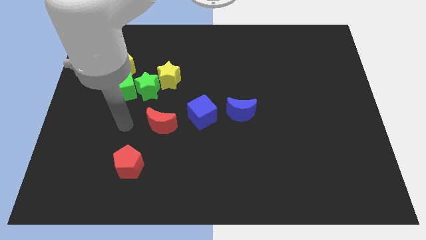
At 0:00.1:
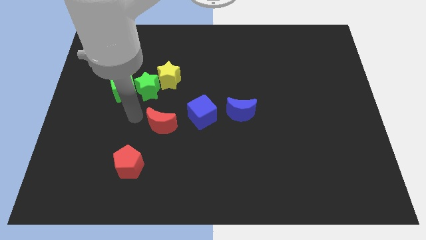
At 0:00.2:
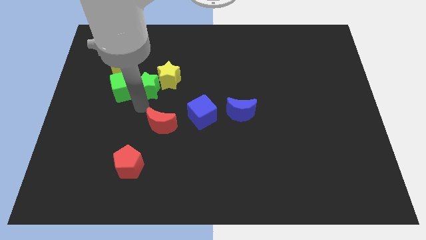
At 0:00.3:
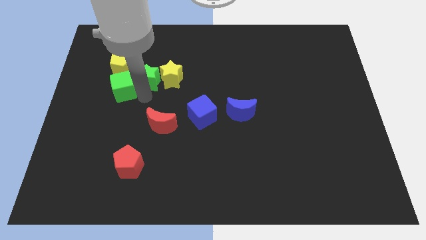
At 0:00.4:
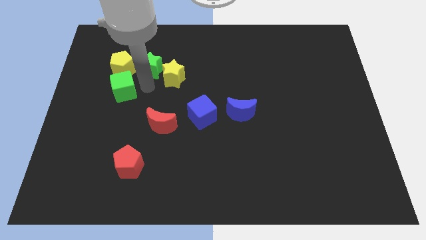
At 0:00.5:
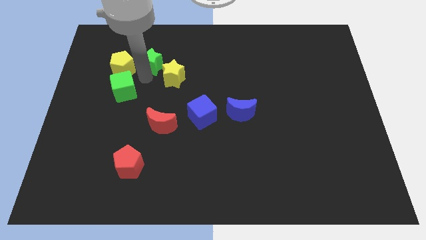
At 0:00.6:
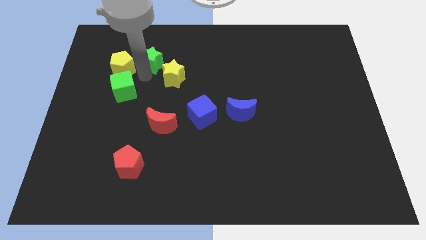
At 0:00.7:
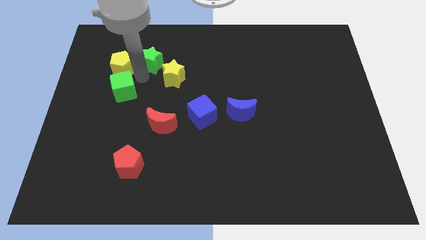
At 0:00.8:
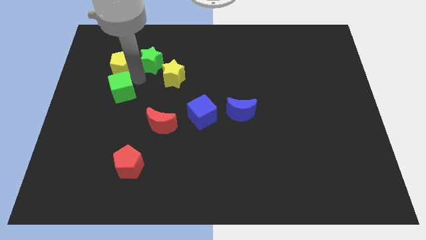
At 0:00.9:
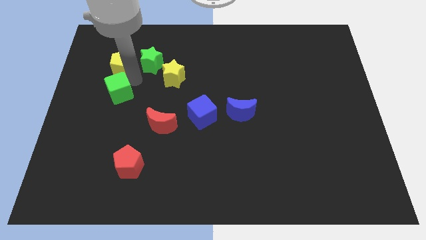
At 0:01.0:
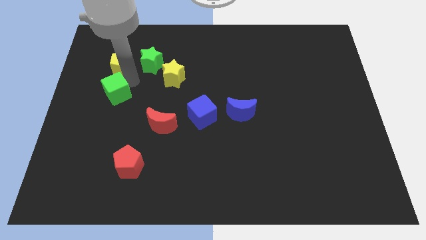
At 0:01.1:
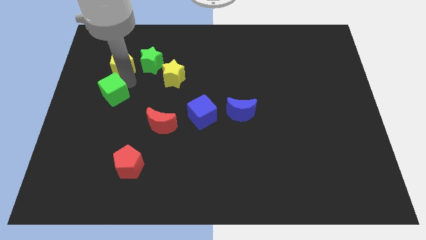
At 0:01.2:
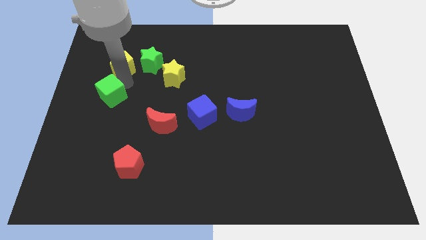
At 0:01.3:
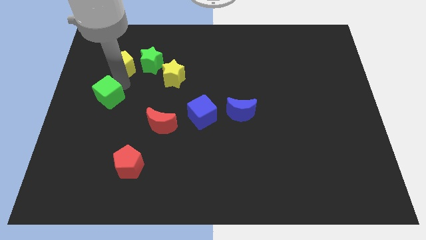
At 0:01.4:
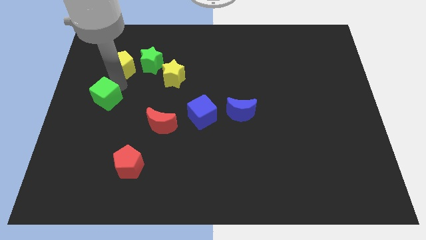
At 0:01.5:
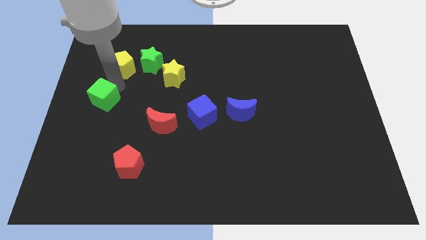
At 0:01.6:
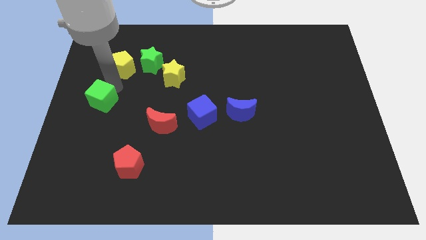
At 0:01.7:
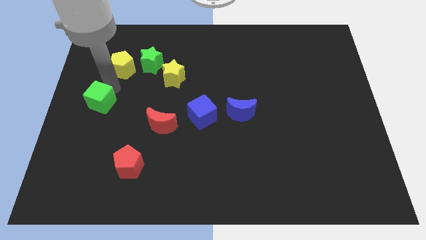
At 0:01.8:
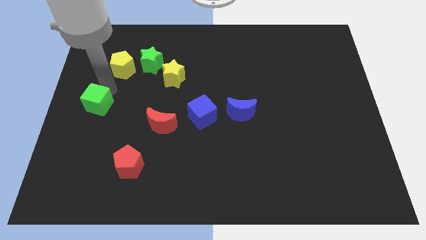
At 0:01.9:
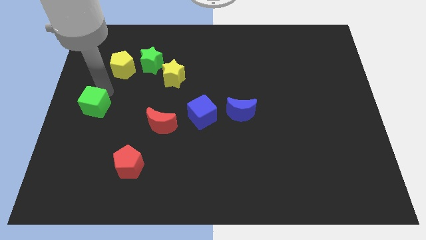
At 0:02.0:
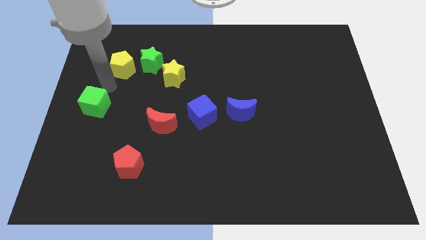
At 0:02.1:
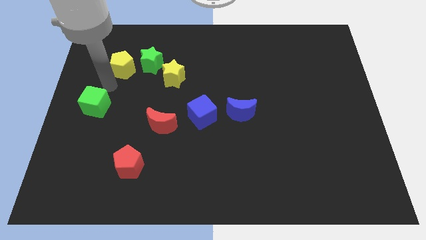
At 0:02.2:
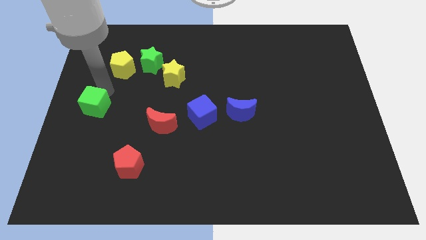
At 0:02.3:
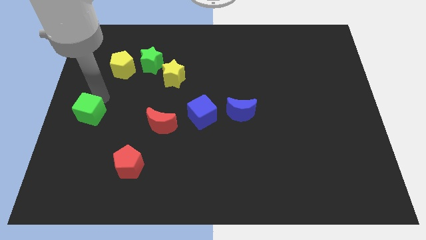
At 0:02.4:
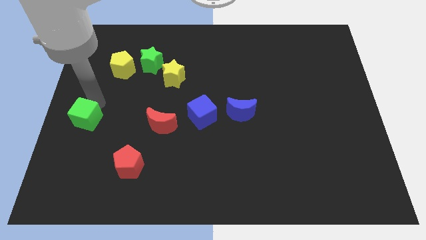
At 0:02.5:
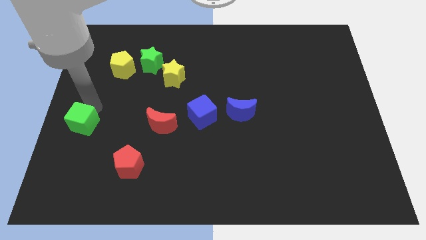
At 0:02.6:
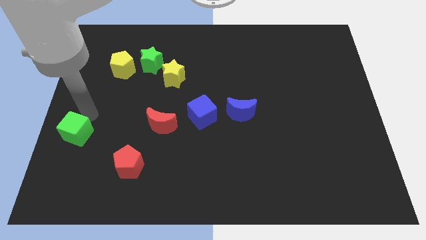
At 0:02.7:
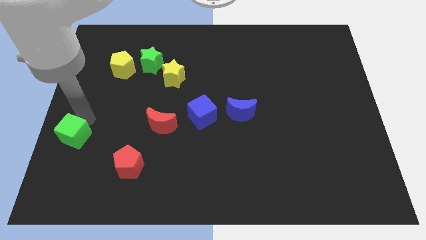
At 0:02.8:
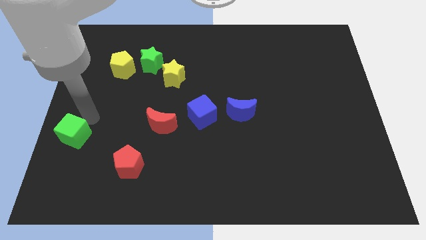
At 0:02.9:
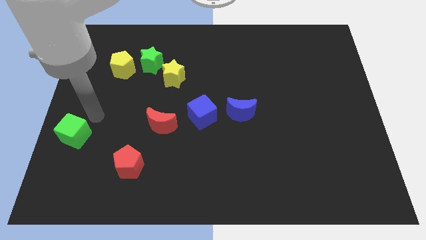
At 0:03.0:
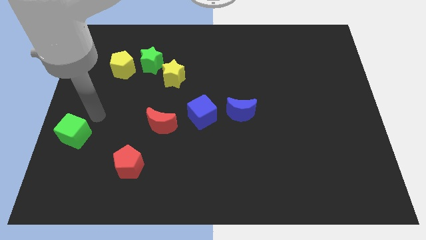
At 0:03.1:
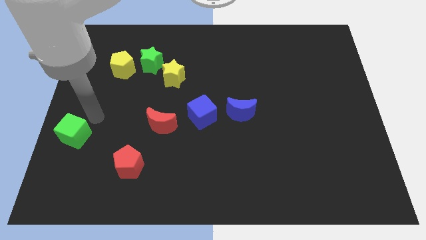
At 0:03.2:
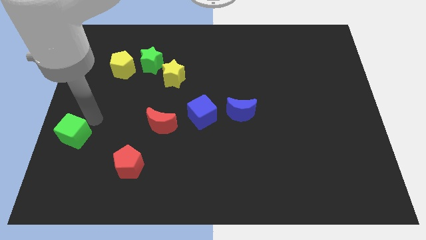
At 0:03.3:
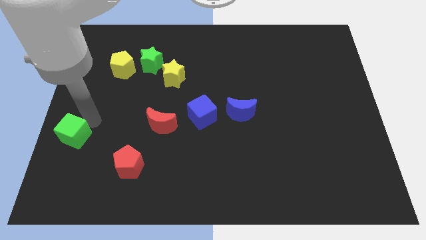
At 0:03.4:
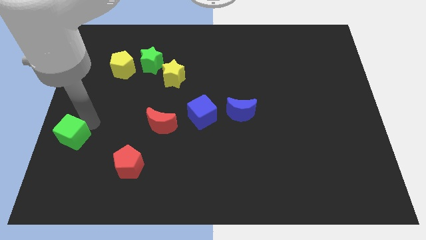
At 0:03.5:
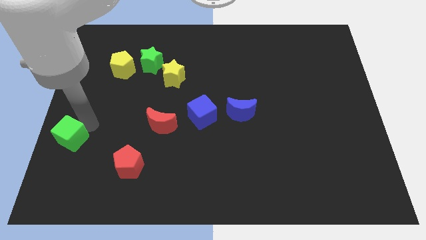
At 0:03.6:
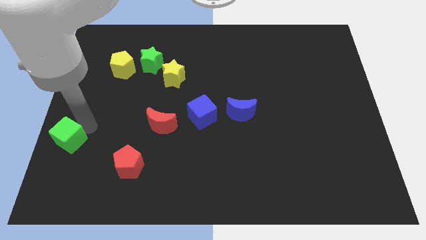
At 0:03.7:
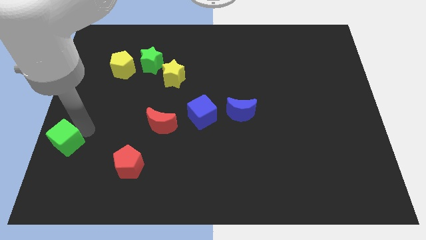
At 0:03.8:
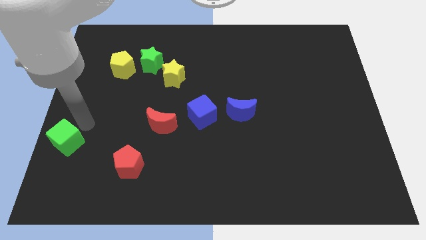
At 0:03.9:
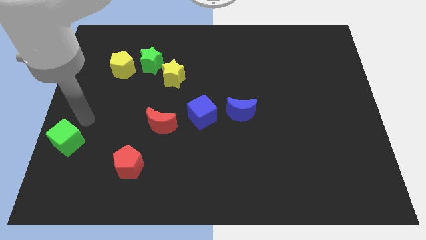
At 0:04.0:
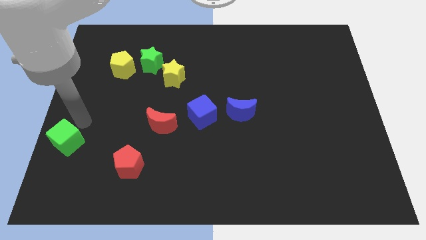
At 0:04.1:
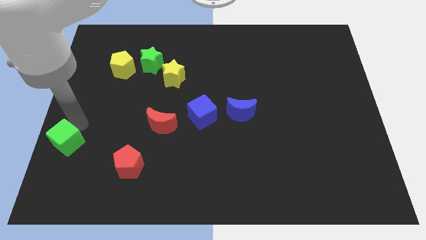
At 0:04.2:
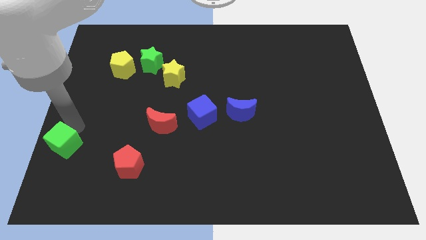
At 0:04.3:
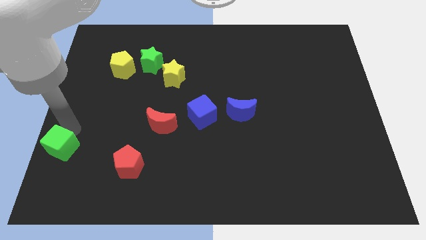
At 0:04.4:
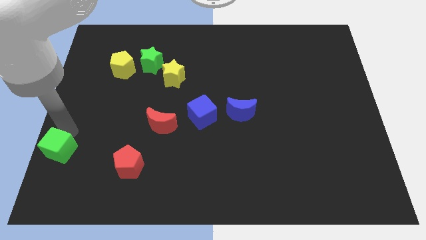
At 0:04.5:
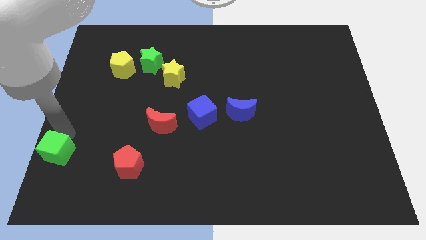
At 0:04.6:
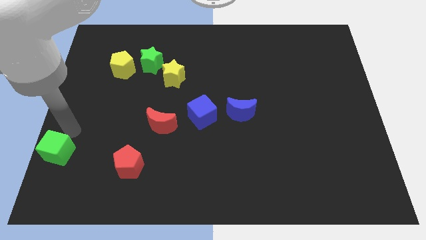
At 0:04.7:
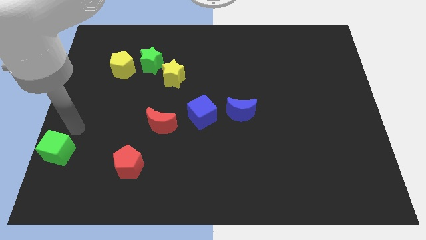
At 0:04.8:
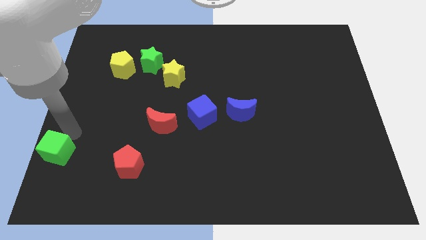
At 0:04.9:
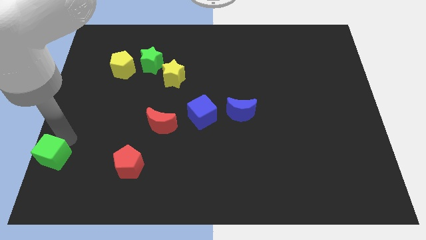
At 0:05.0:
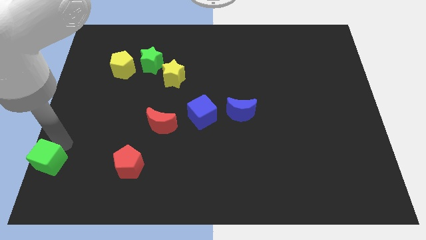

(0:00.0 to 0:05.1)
move the green cube to the bottom left of the board

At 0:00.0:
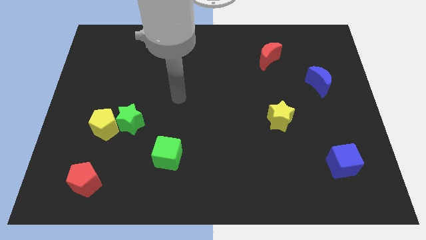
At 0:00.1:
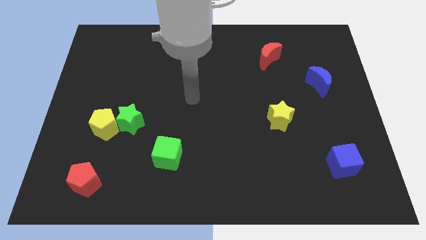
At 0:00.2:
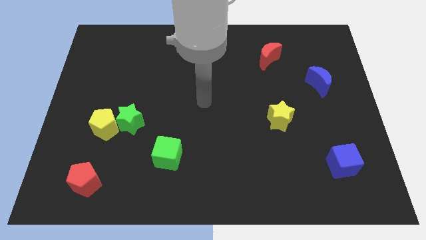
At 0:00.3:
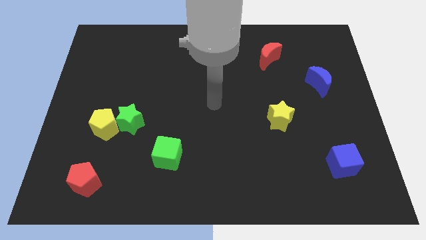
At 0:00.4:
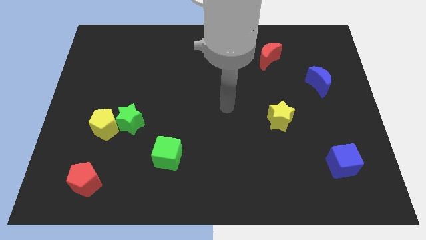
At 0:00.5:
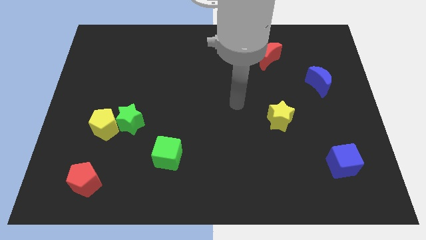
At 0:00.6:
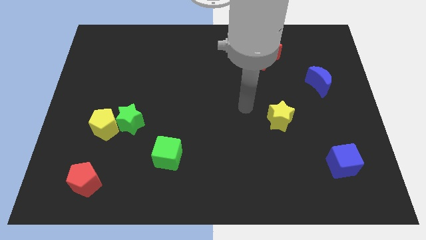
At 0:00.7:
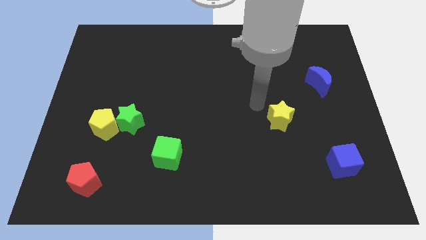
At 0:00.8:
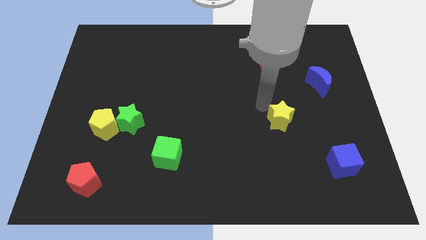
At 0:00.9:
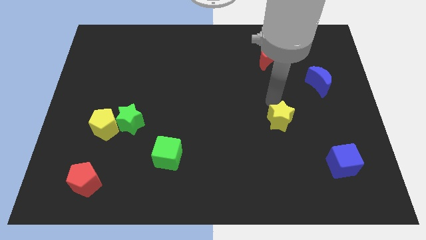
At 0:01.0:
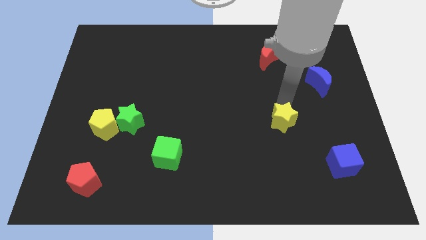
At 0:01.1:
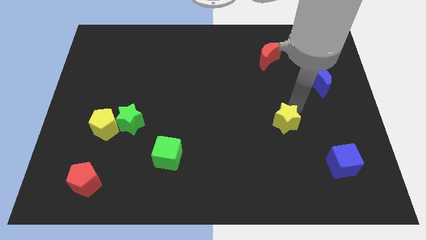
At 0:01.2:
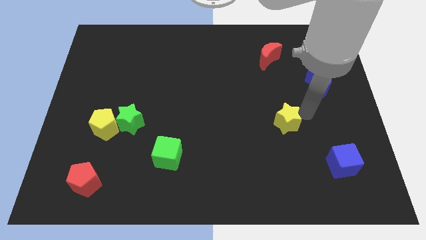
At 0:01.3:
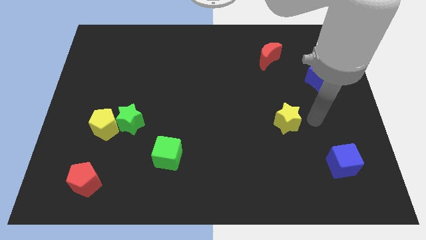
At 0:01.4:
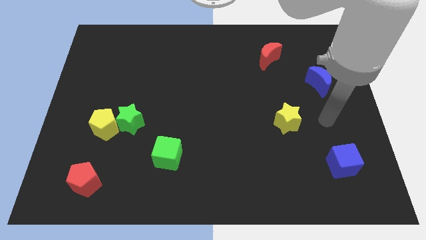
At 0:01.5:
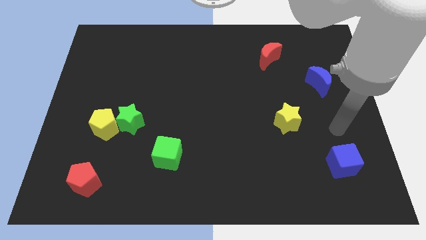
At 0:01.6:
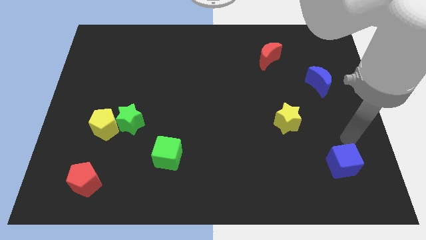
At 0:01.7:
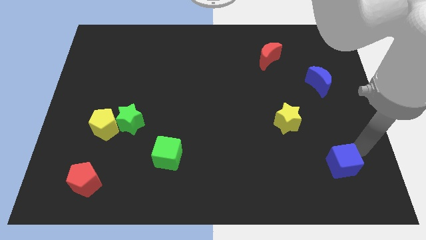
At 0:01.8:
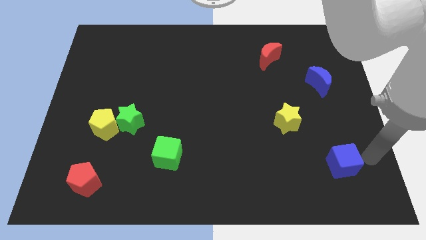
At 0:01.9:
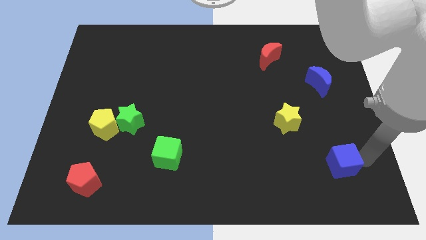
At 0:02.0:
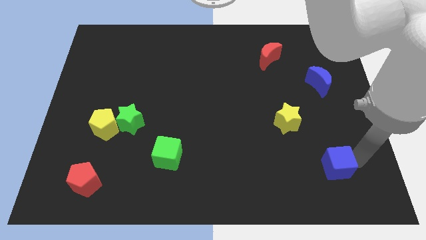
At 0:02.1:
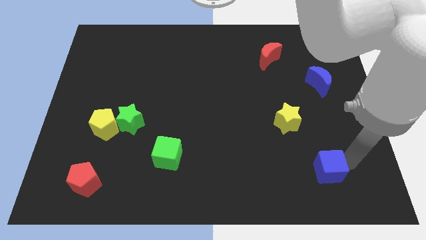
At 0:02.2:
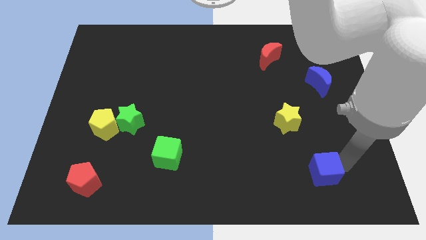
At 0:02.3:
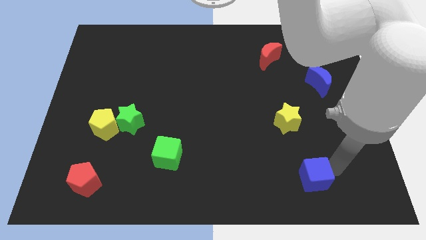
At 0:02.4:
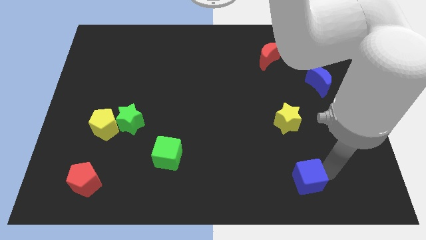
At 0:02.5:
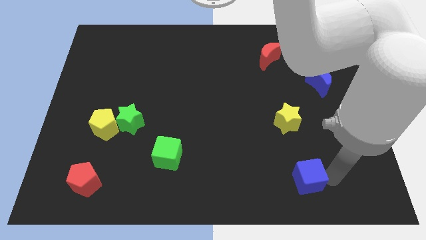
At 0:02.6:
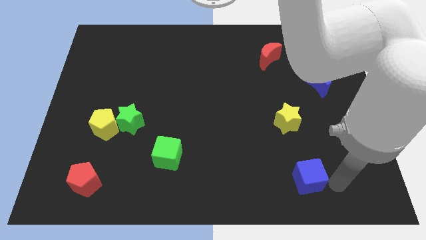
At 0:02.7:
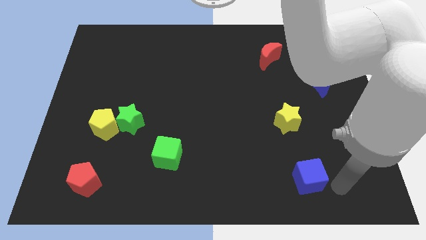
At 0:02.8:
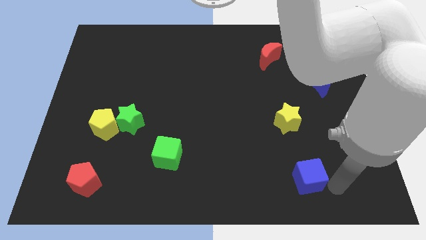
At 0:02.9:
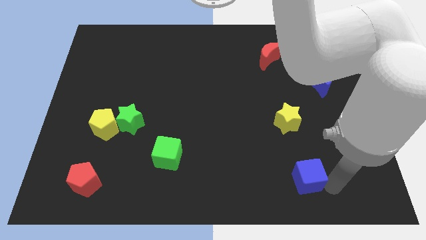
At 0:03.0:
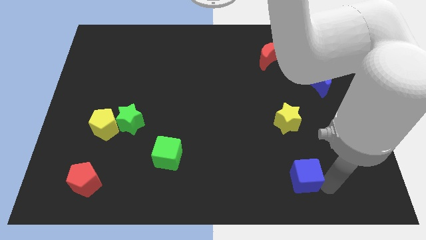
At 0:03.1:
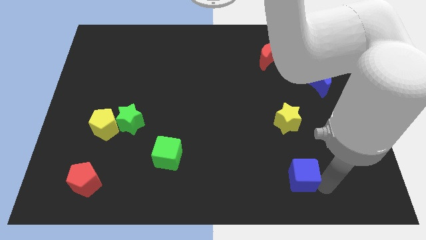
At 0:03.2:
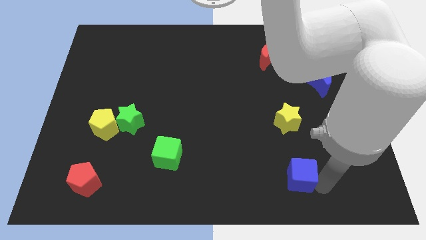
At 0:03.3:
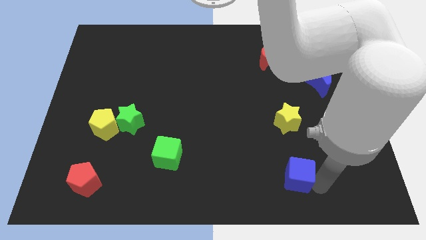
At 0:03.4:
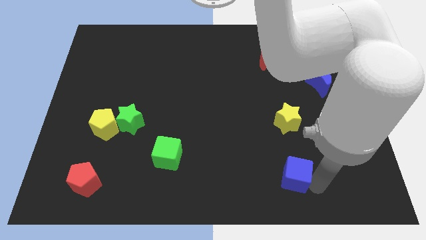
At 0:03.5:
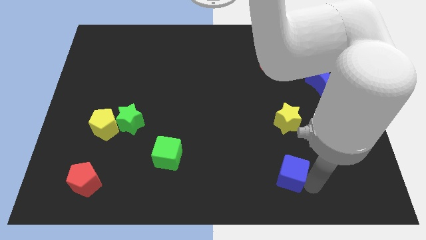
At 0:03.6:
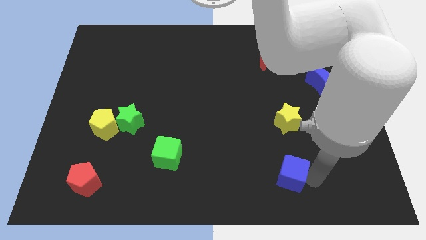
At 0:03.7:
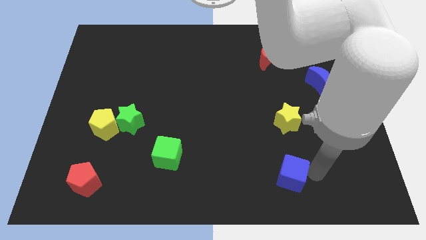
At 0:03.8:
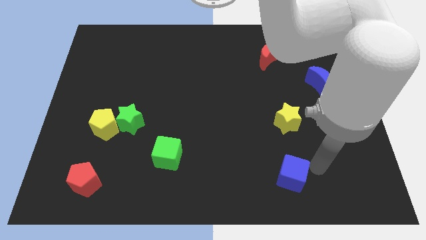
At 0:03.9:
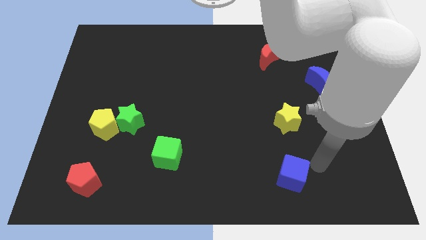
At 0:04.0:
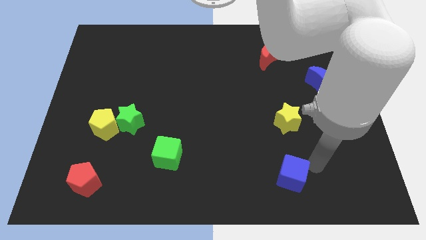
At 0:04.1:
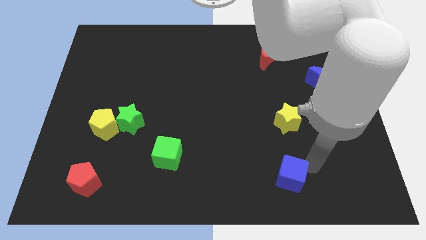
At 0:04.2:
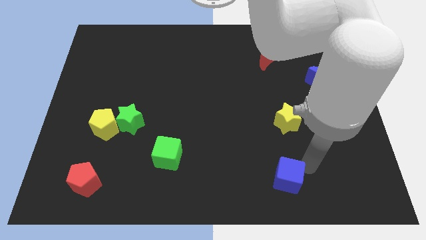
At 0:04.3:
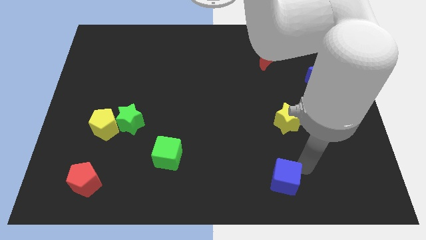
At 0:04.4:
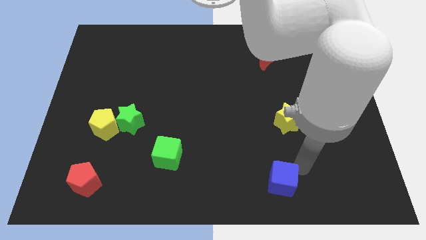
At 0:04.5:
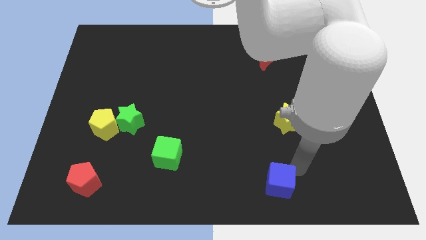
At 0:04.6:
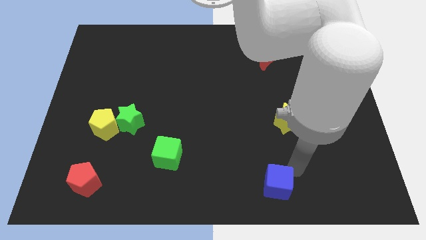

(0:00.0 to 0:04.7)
put the blue cube to the bottom
